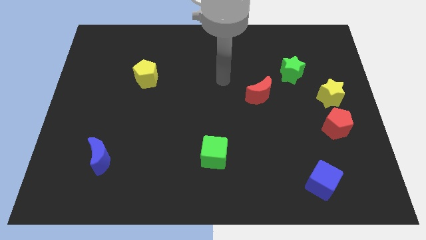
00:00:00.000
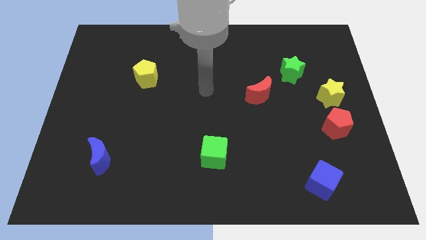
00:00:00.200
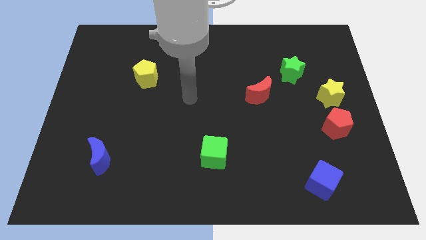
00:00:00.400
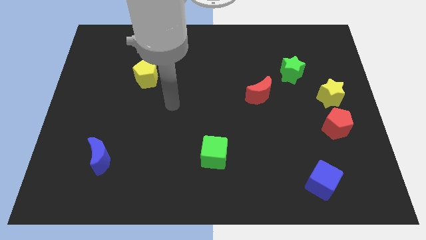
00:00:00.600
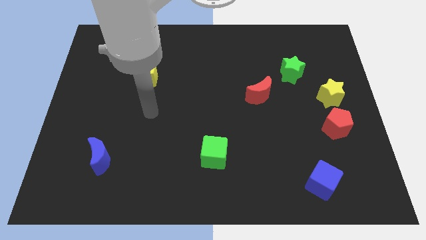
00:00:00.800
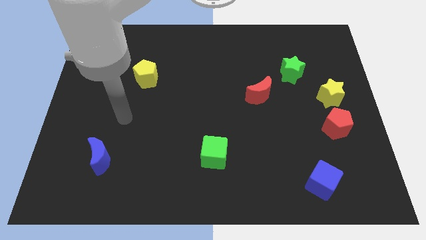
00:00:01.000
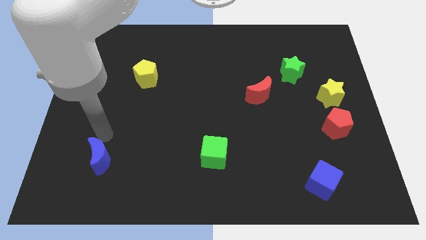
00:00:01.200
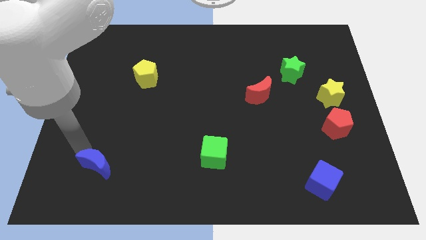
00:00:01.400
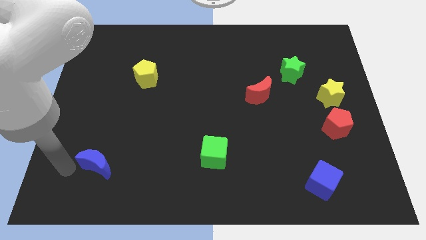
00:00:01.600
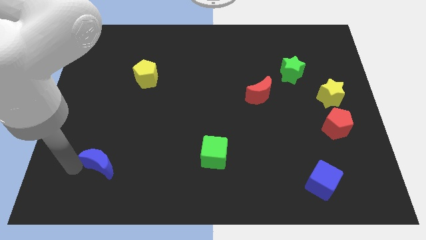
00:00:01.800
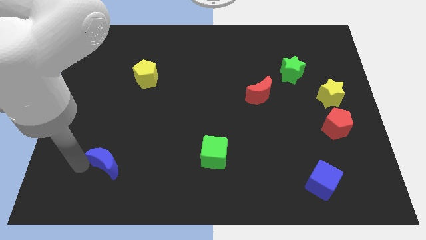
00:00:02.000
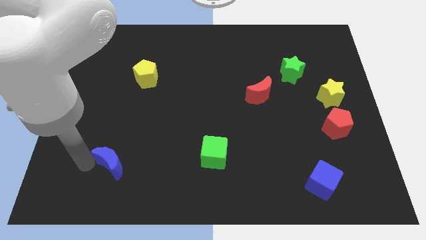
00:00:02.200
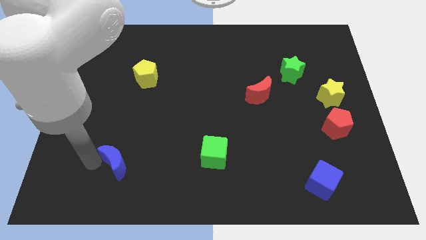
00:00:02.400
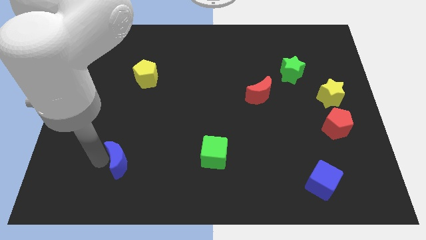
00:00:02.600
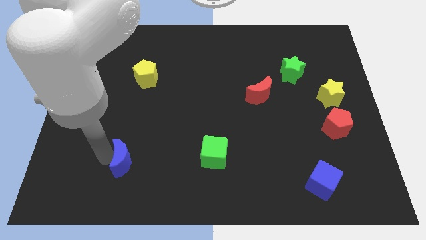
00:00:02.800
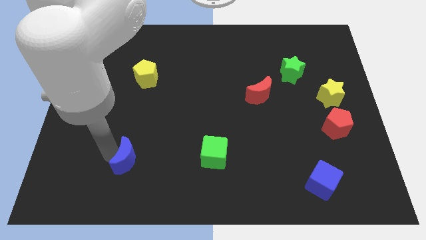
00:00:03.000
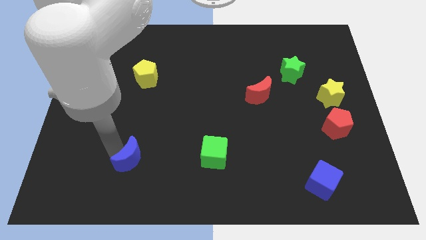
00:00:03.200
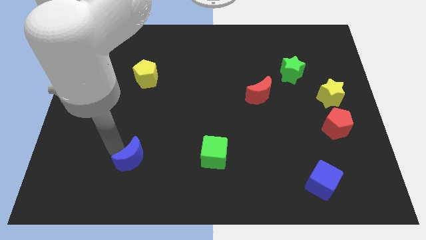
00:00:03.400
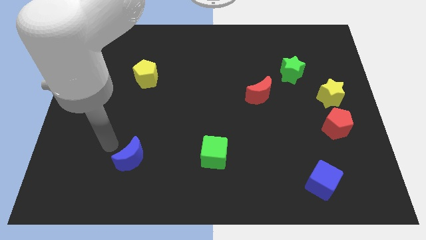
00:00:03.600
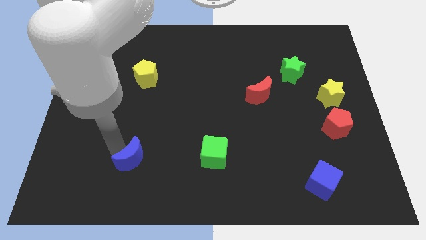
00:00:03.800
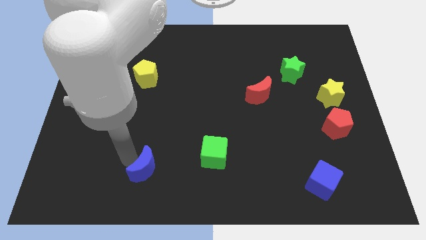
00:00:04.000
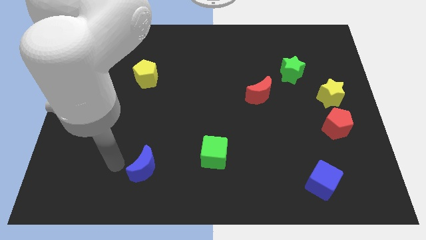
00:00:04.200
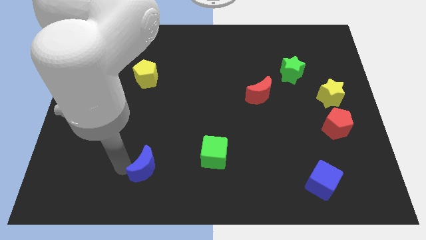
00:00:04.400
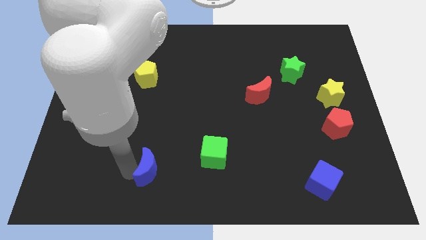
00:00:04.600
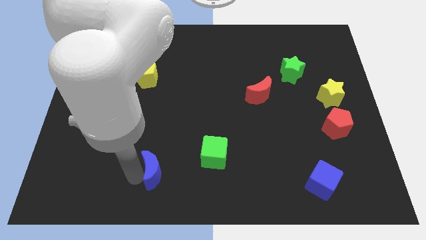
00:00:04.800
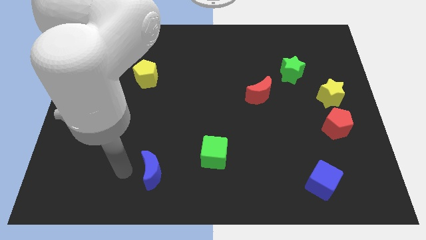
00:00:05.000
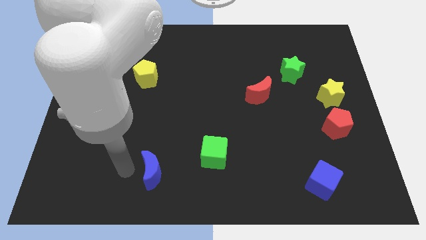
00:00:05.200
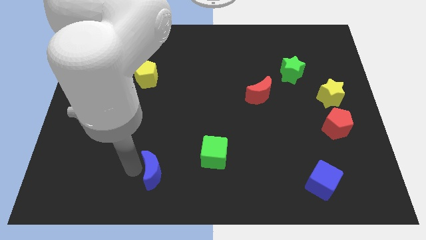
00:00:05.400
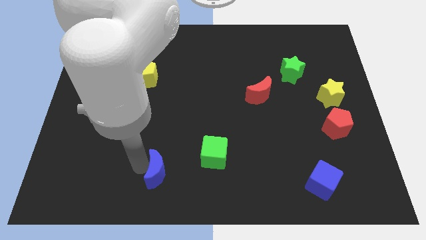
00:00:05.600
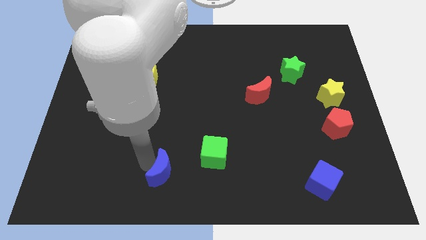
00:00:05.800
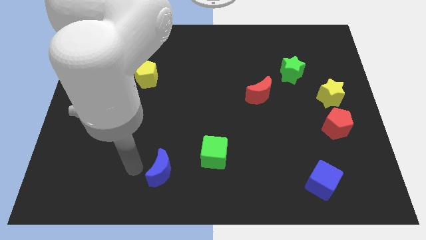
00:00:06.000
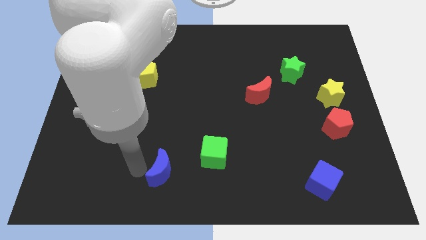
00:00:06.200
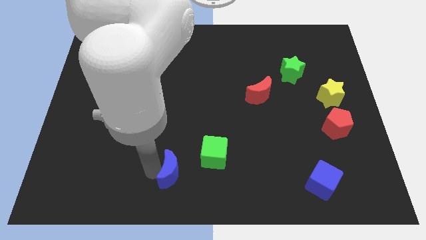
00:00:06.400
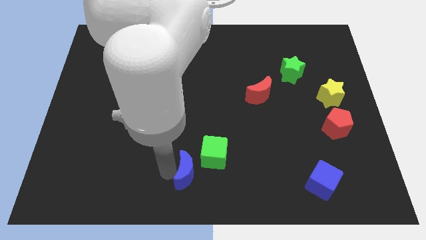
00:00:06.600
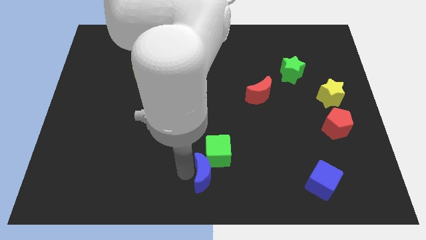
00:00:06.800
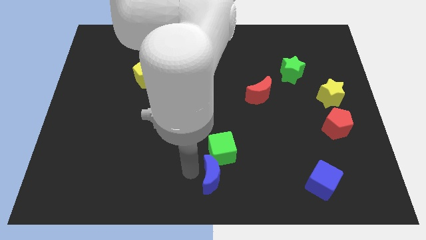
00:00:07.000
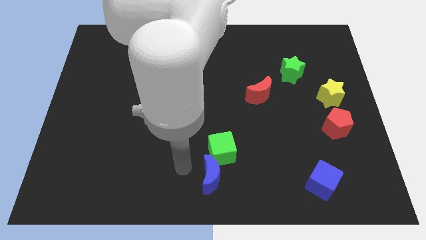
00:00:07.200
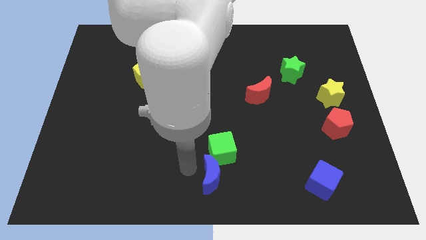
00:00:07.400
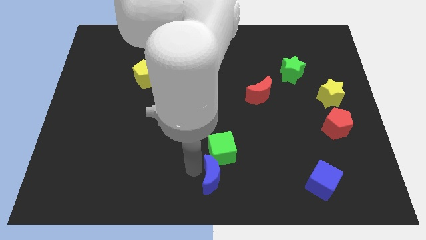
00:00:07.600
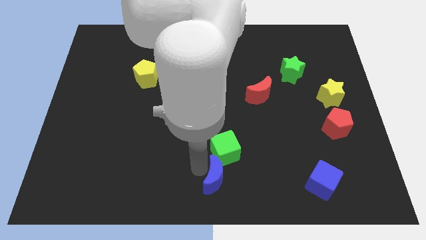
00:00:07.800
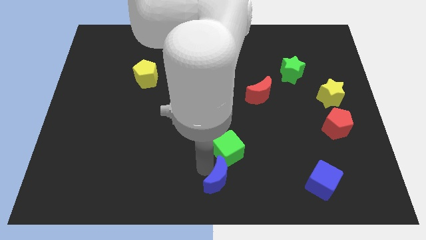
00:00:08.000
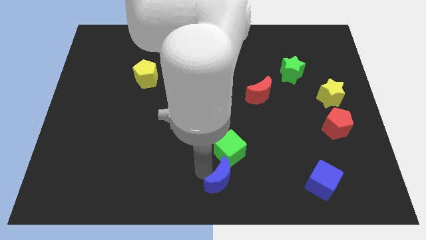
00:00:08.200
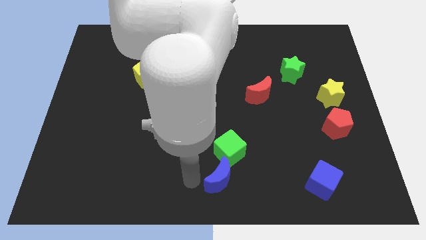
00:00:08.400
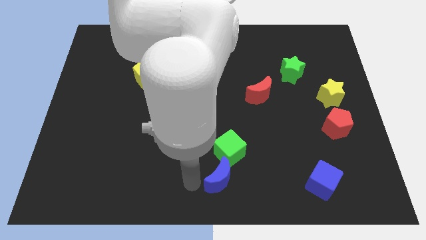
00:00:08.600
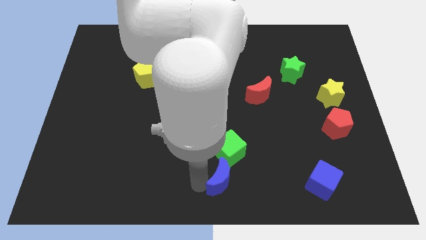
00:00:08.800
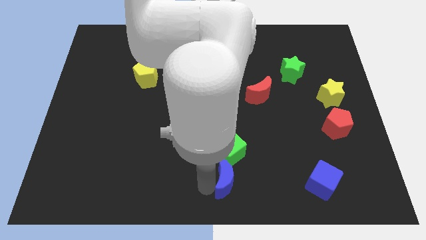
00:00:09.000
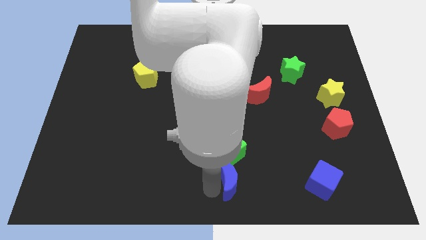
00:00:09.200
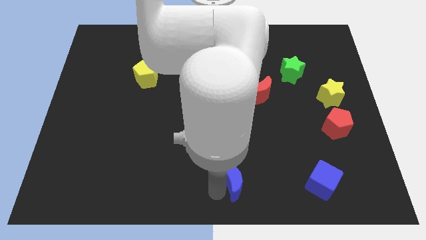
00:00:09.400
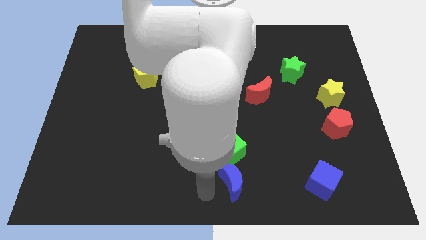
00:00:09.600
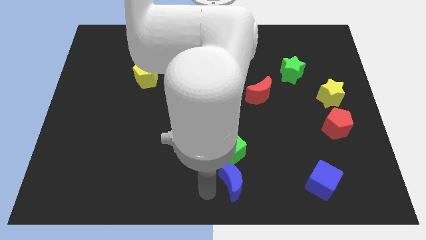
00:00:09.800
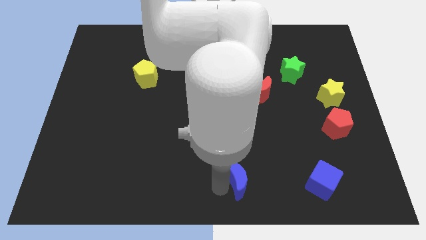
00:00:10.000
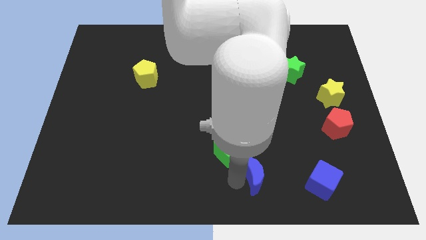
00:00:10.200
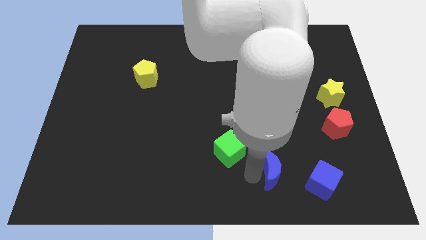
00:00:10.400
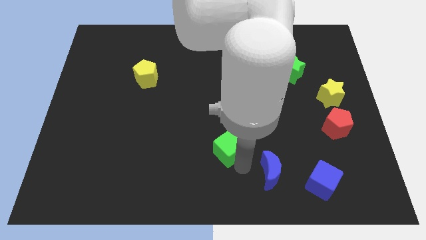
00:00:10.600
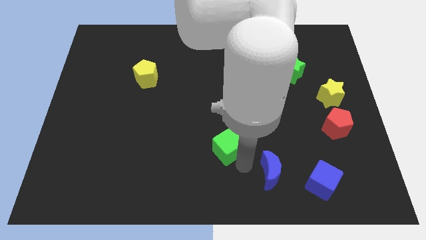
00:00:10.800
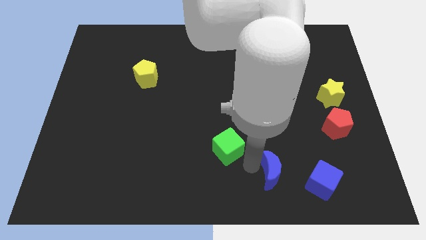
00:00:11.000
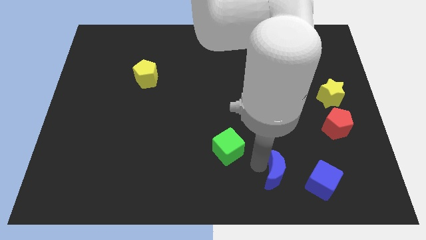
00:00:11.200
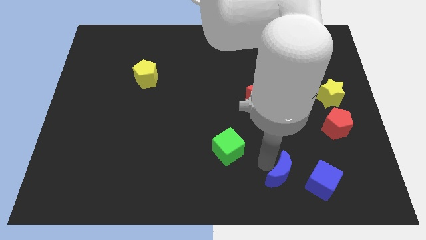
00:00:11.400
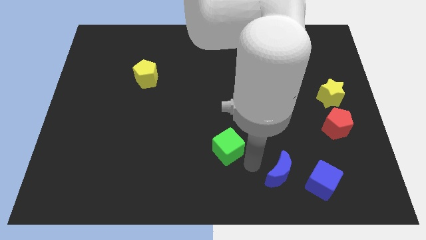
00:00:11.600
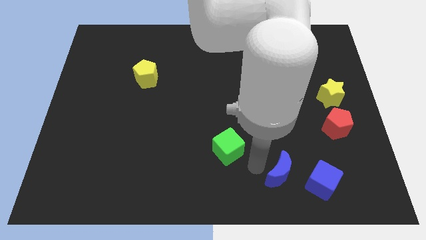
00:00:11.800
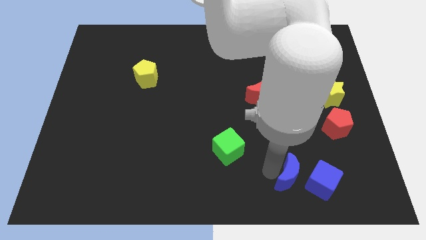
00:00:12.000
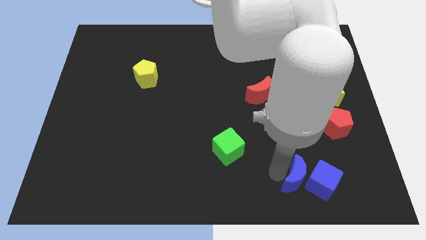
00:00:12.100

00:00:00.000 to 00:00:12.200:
move the blue moon close to the blue cube

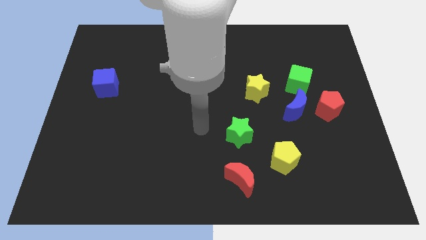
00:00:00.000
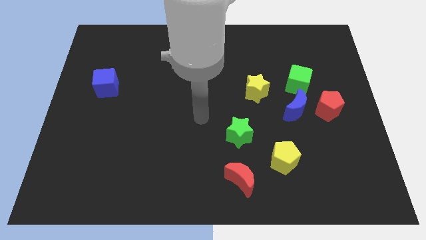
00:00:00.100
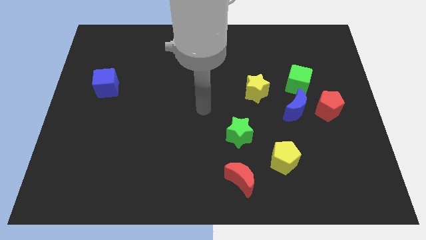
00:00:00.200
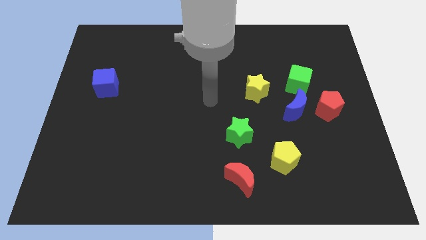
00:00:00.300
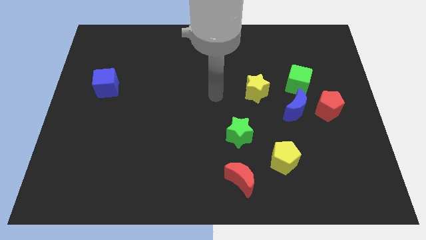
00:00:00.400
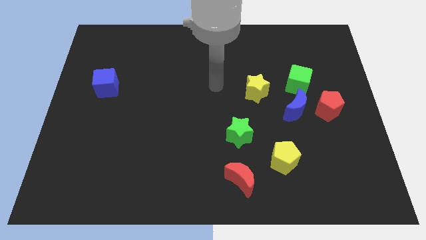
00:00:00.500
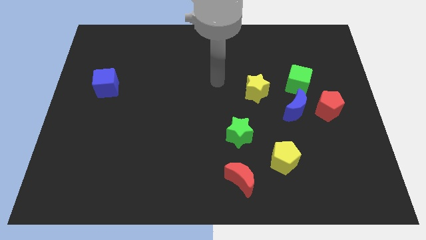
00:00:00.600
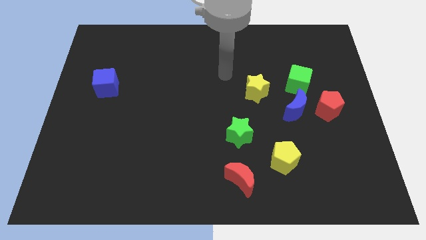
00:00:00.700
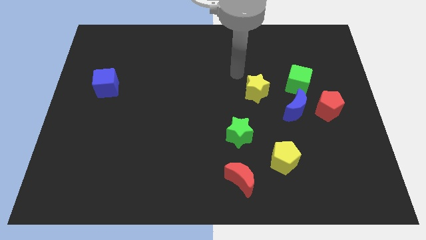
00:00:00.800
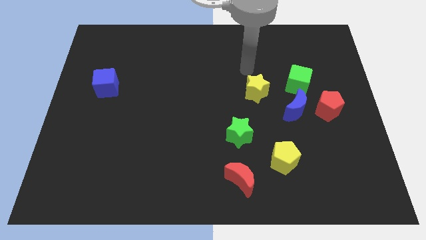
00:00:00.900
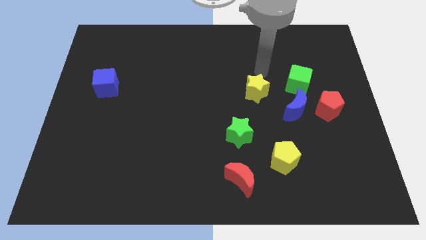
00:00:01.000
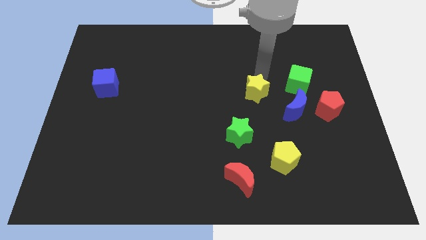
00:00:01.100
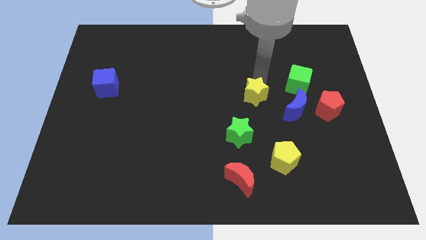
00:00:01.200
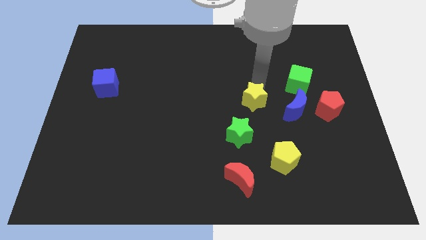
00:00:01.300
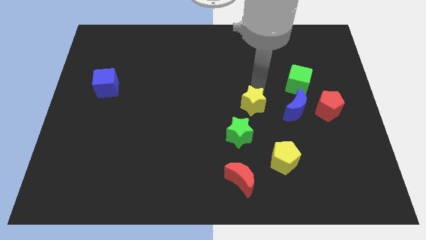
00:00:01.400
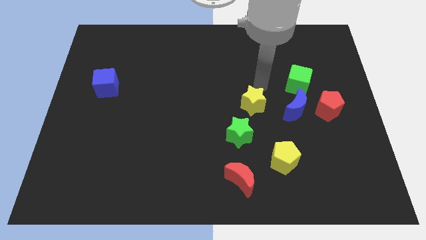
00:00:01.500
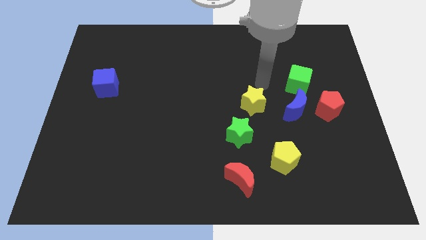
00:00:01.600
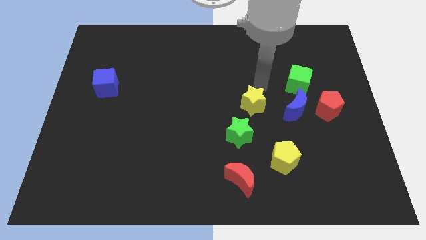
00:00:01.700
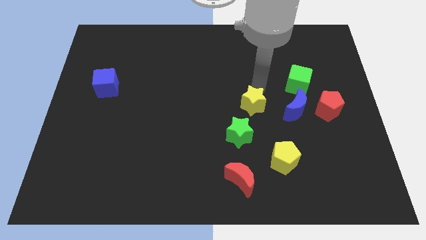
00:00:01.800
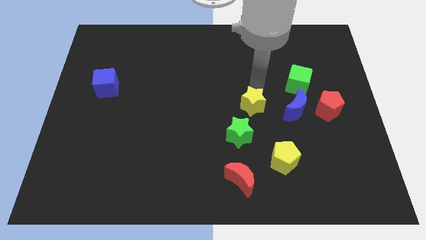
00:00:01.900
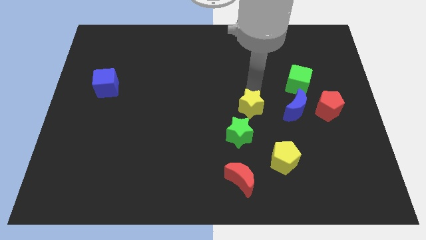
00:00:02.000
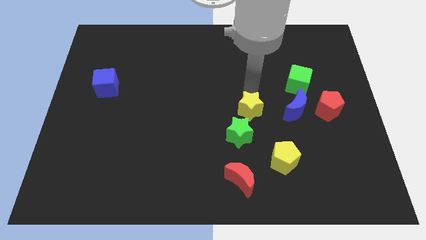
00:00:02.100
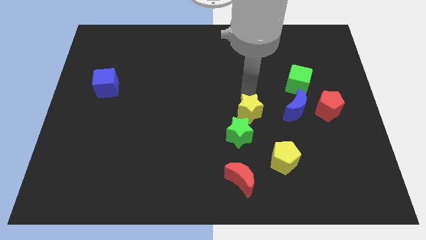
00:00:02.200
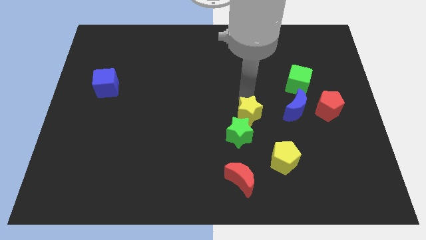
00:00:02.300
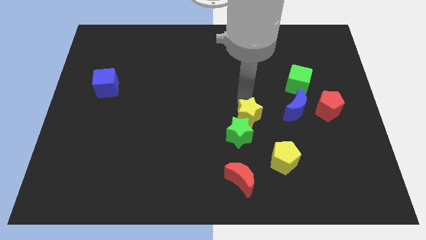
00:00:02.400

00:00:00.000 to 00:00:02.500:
push the yellow star close to the green star
